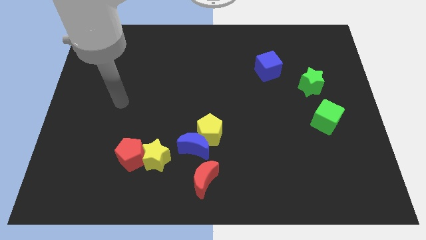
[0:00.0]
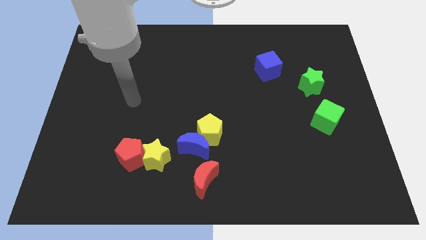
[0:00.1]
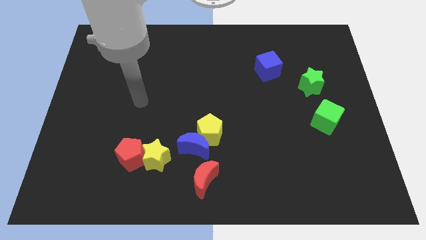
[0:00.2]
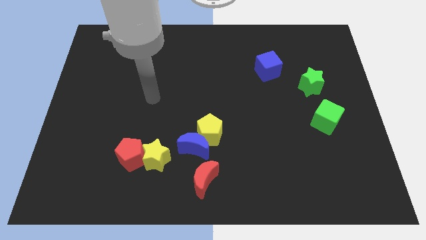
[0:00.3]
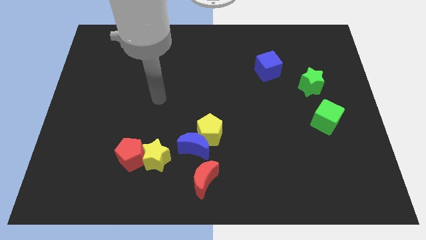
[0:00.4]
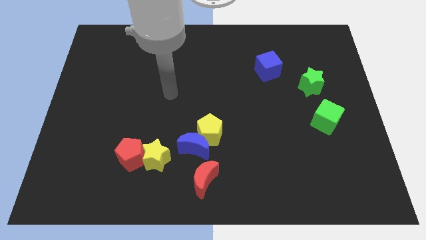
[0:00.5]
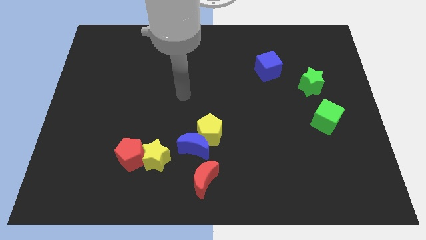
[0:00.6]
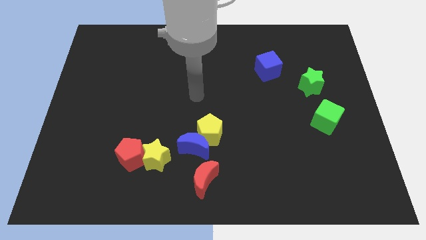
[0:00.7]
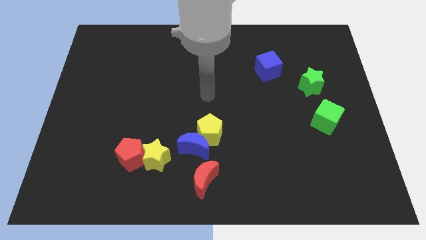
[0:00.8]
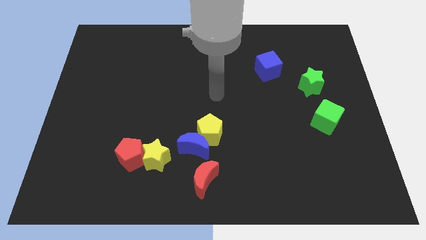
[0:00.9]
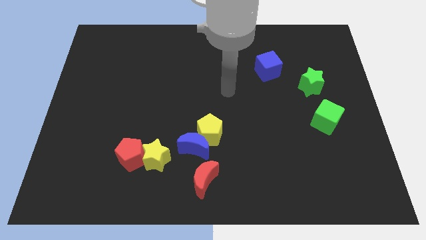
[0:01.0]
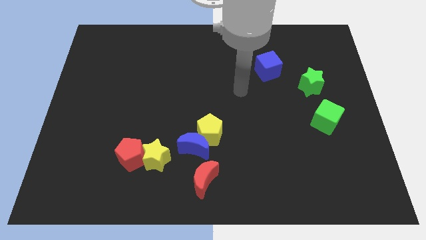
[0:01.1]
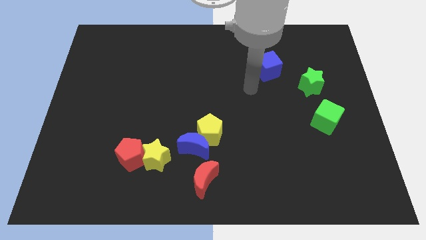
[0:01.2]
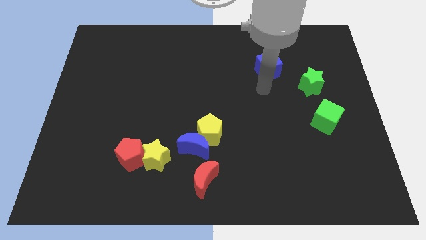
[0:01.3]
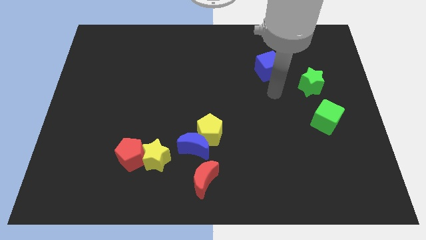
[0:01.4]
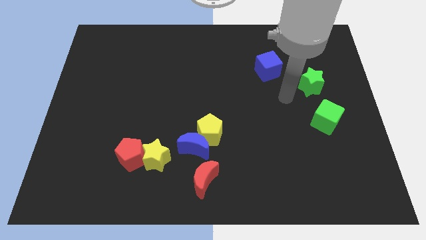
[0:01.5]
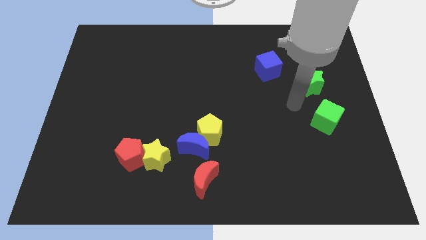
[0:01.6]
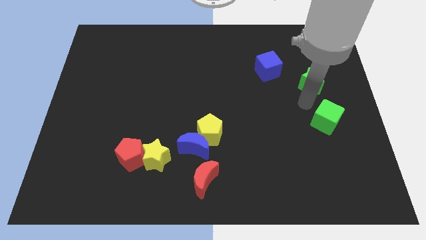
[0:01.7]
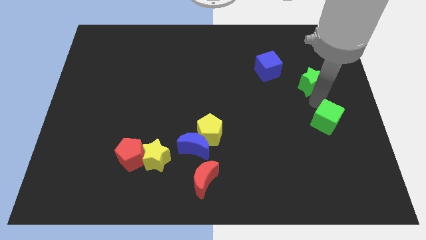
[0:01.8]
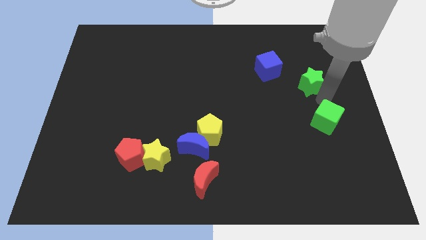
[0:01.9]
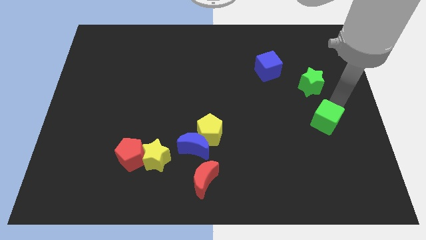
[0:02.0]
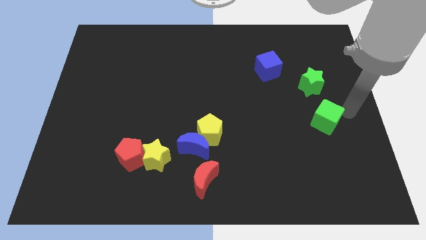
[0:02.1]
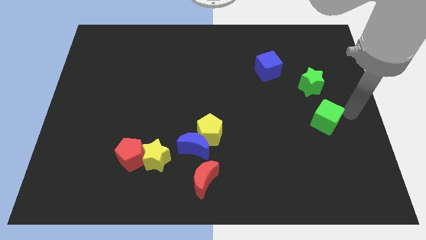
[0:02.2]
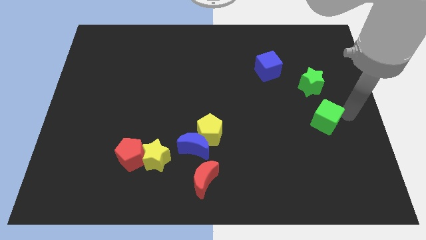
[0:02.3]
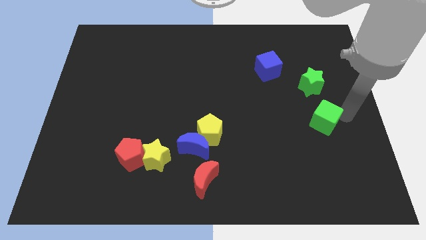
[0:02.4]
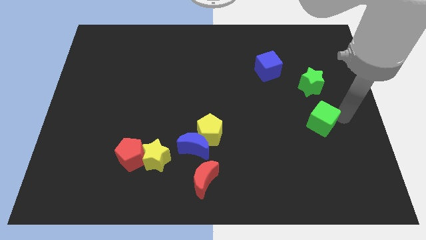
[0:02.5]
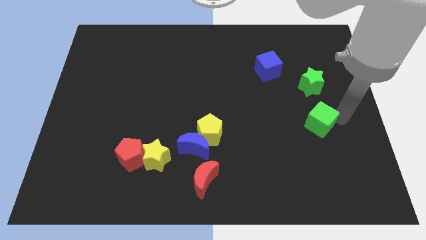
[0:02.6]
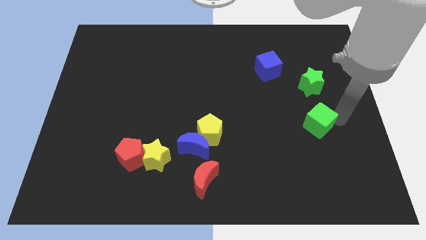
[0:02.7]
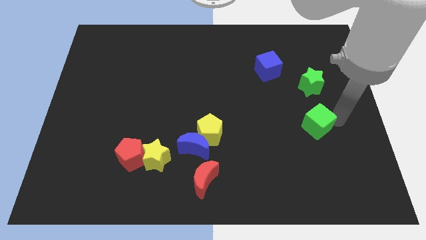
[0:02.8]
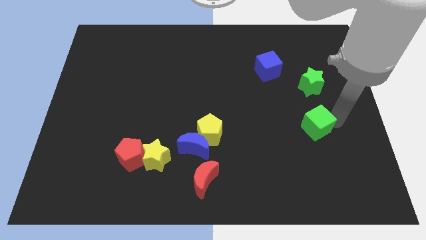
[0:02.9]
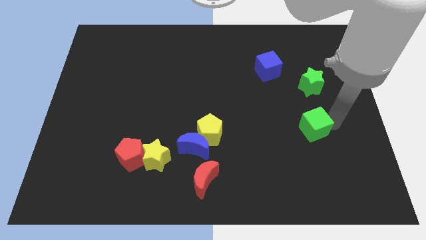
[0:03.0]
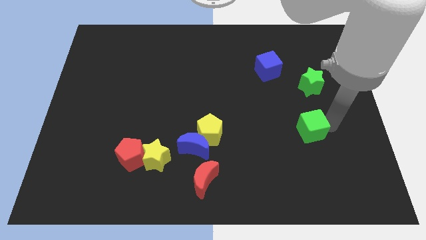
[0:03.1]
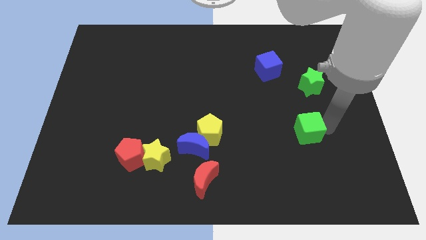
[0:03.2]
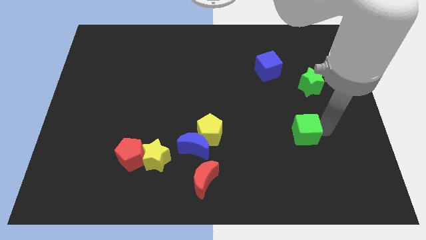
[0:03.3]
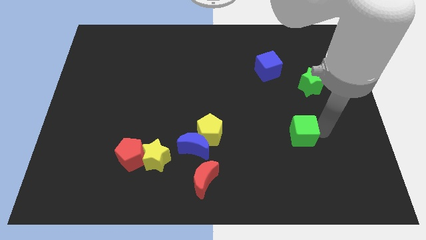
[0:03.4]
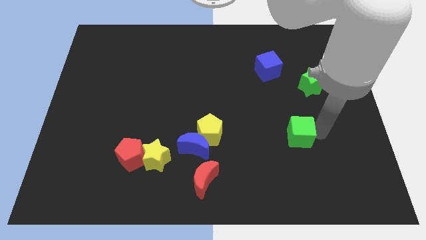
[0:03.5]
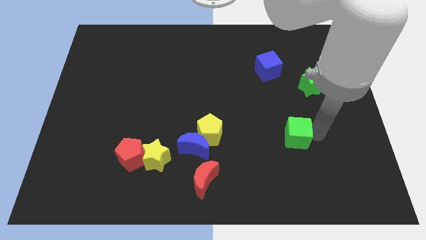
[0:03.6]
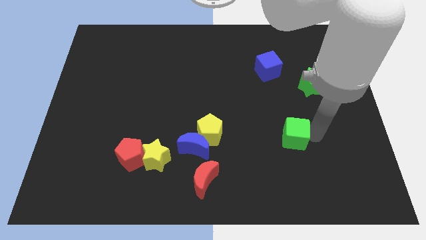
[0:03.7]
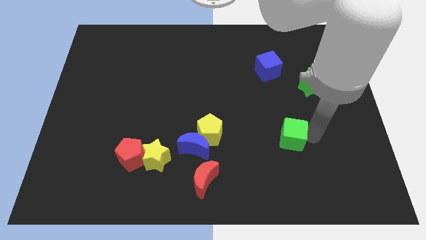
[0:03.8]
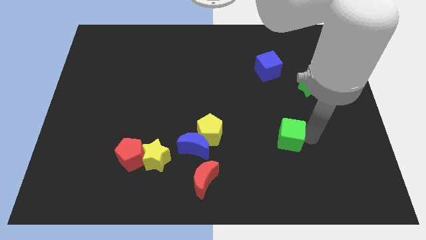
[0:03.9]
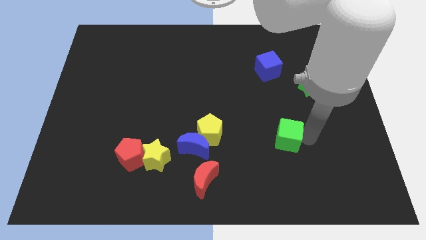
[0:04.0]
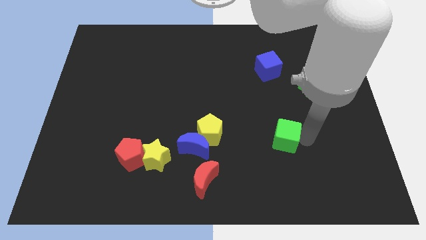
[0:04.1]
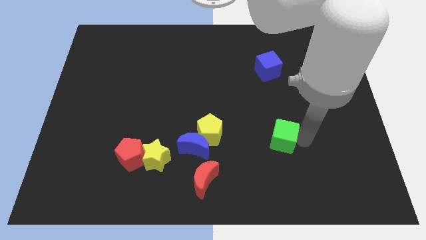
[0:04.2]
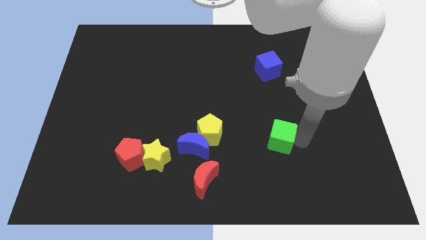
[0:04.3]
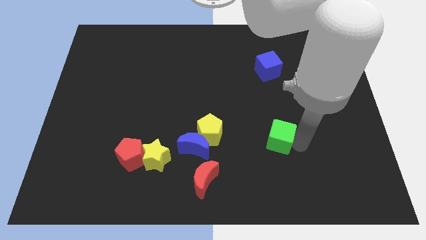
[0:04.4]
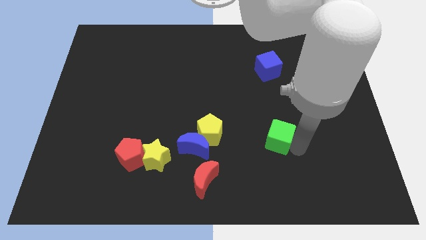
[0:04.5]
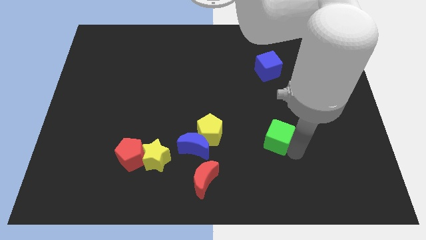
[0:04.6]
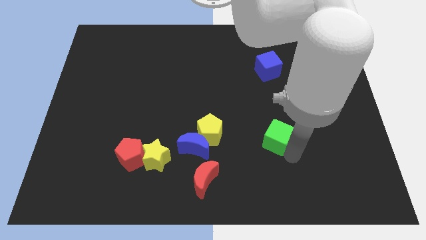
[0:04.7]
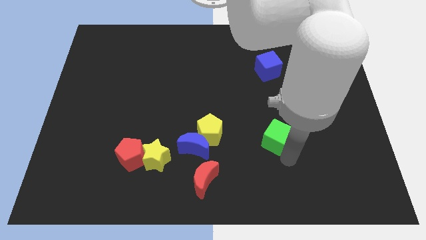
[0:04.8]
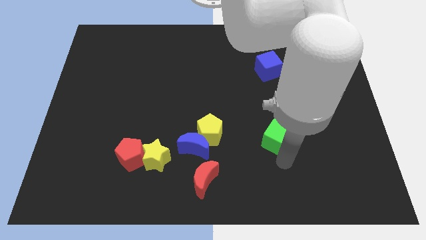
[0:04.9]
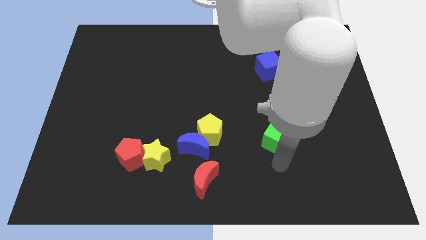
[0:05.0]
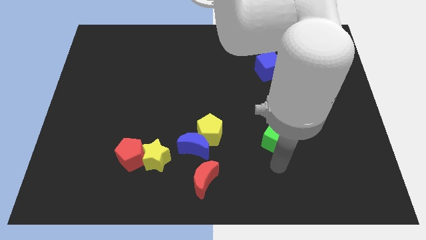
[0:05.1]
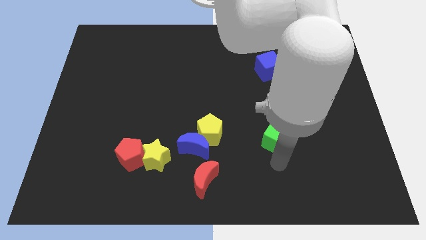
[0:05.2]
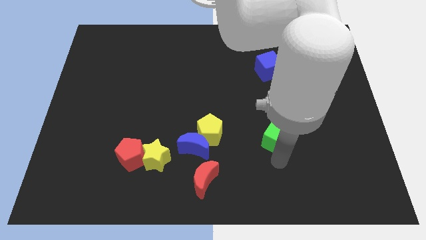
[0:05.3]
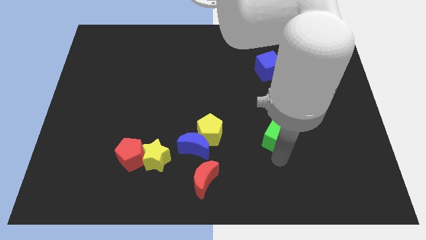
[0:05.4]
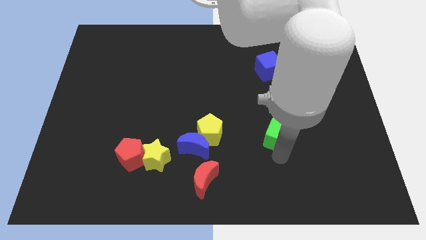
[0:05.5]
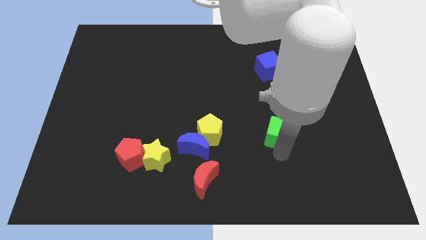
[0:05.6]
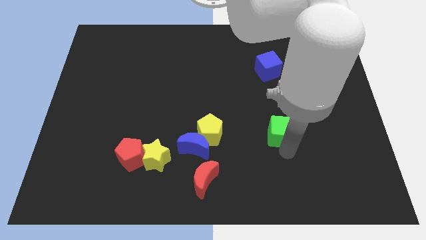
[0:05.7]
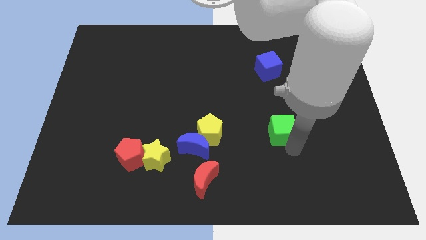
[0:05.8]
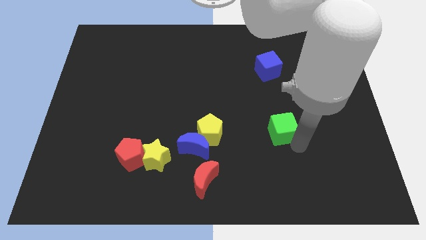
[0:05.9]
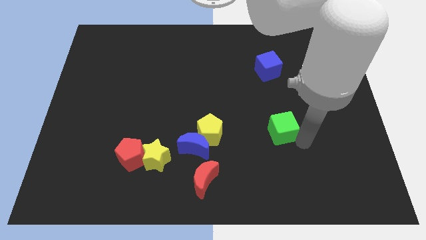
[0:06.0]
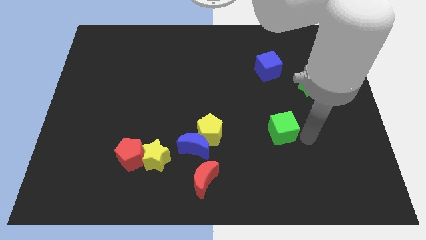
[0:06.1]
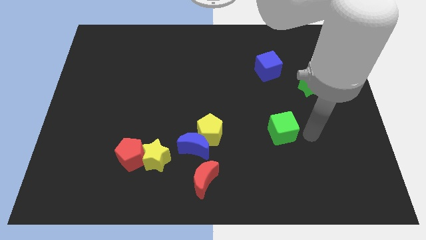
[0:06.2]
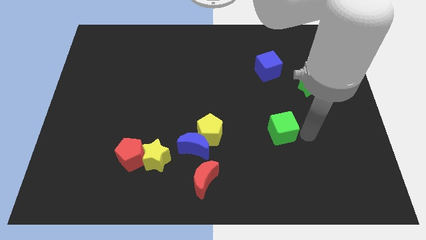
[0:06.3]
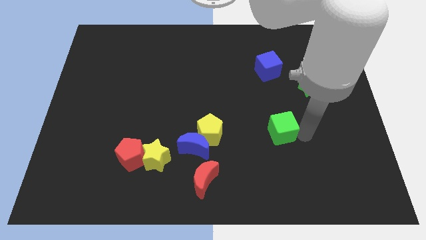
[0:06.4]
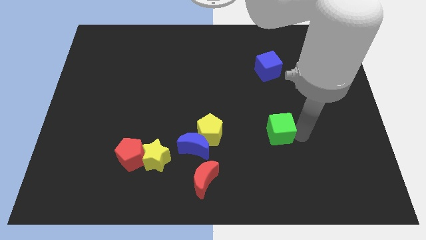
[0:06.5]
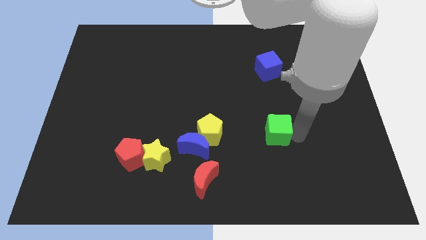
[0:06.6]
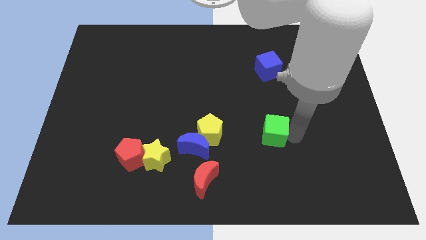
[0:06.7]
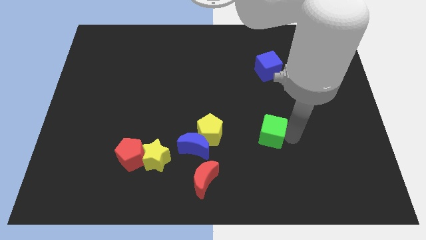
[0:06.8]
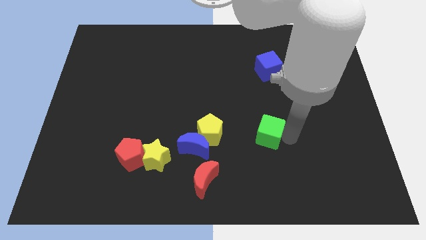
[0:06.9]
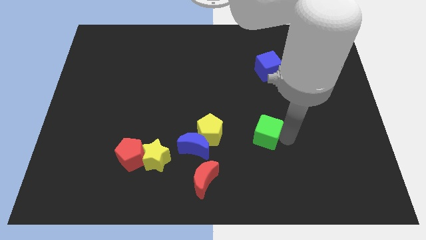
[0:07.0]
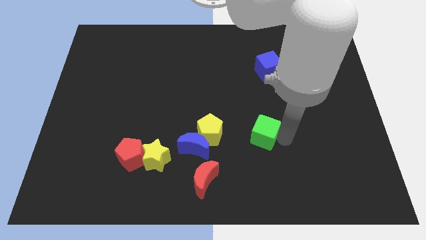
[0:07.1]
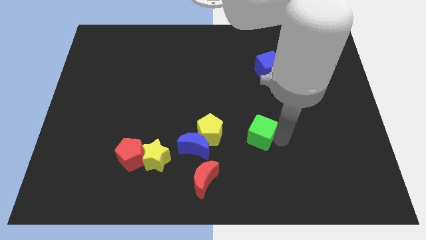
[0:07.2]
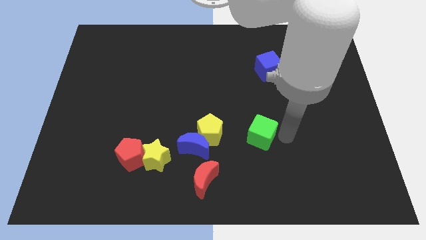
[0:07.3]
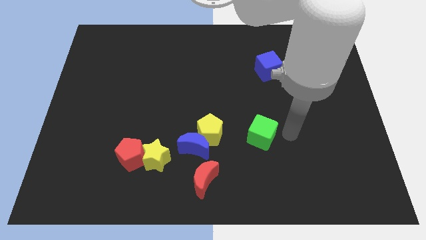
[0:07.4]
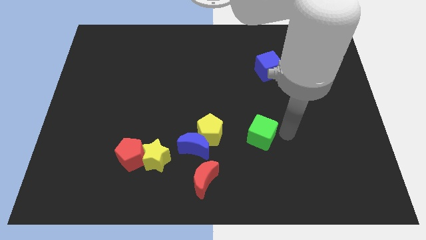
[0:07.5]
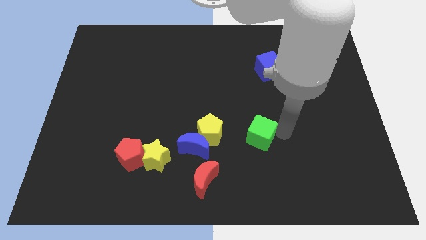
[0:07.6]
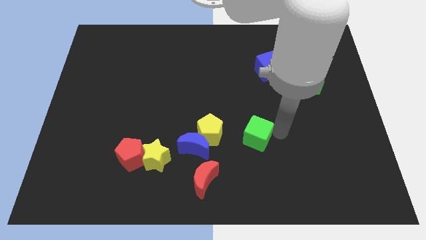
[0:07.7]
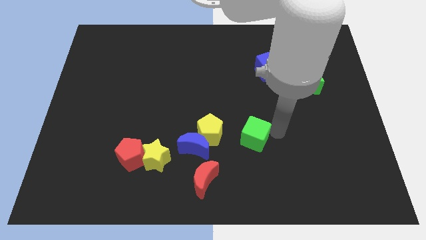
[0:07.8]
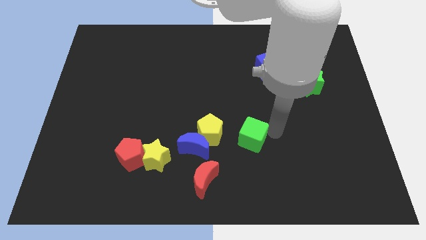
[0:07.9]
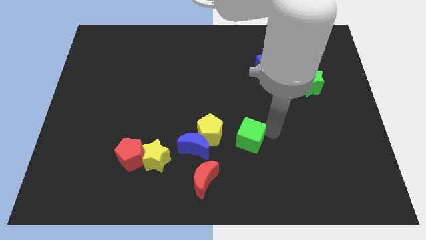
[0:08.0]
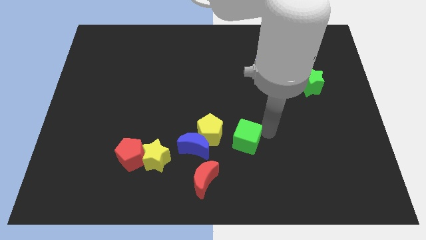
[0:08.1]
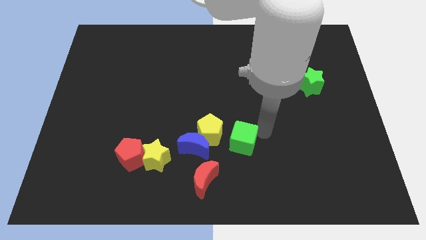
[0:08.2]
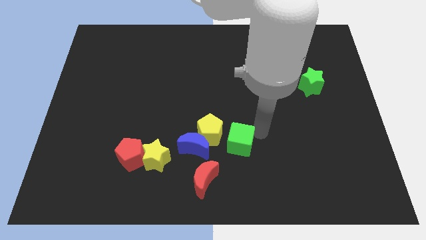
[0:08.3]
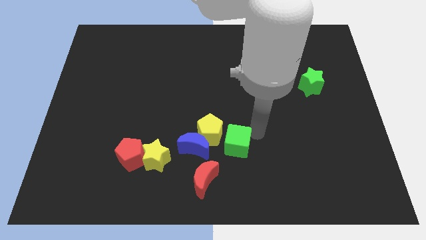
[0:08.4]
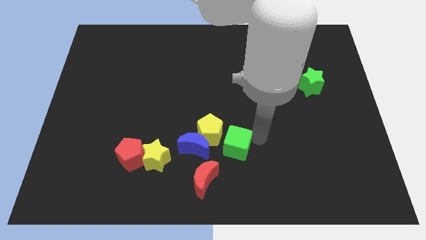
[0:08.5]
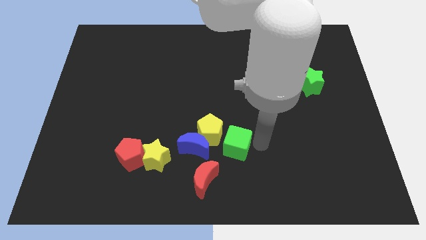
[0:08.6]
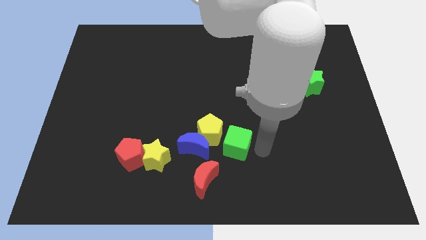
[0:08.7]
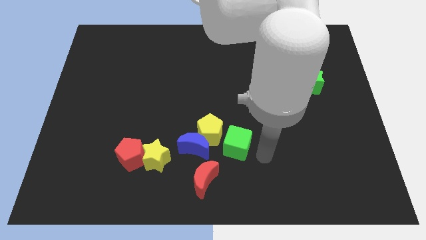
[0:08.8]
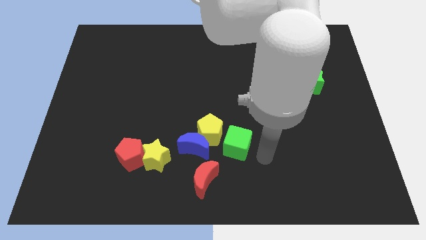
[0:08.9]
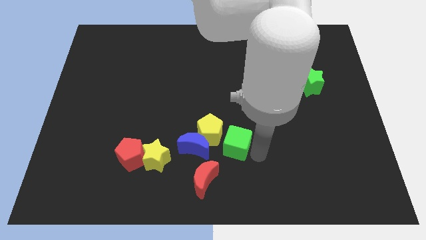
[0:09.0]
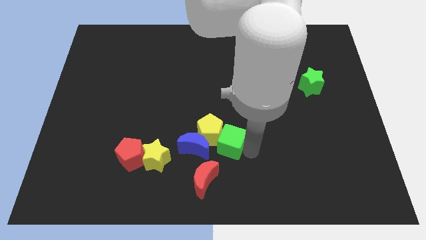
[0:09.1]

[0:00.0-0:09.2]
move the green cube close to the yellow pentagon
